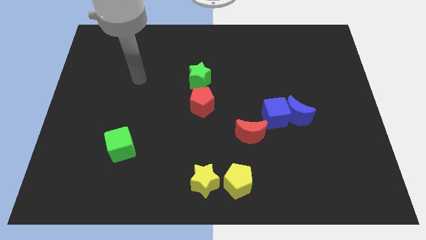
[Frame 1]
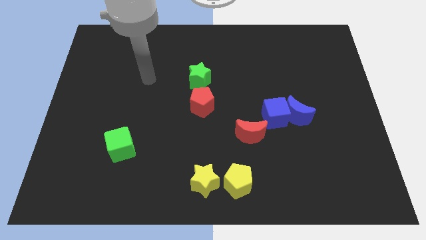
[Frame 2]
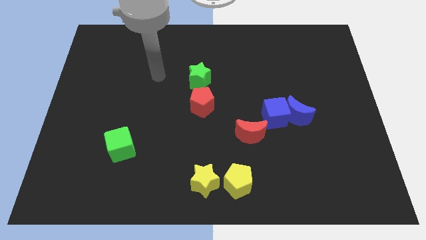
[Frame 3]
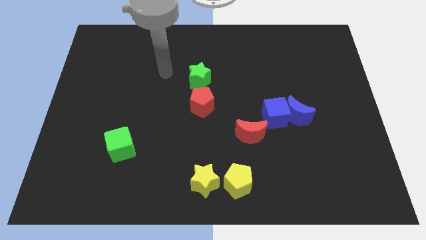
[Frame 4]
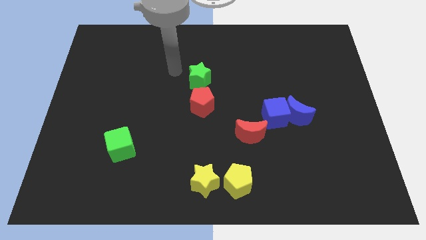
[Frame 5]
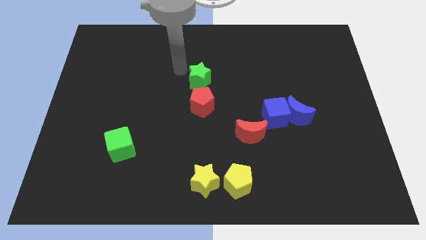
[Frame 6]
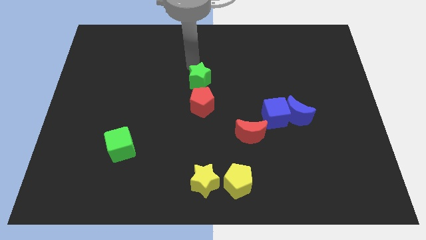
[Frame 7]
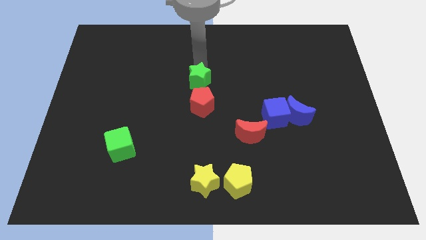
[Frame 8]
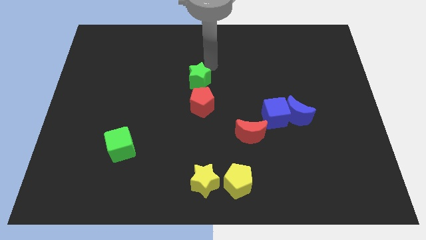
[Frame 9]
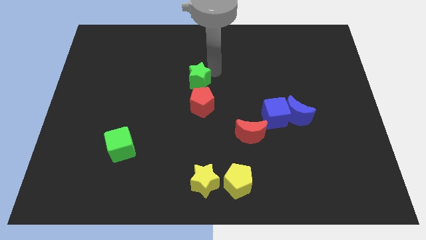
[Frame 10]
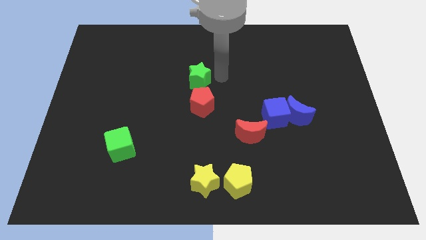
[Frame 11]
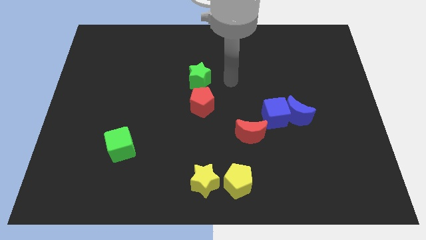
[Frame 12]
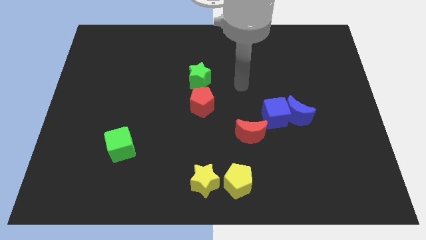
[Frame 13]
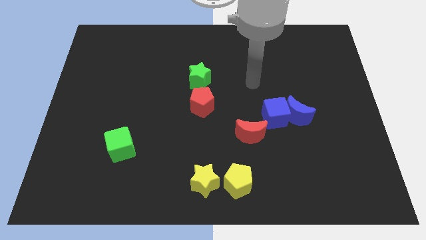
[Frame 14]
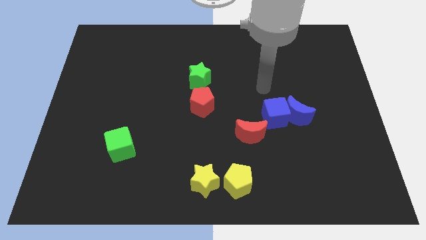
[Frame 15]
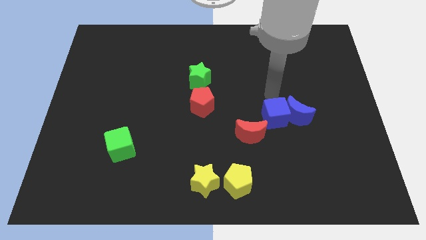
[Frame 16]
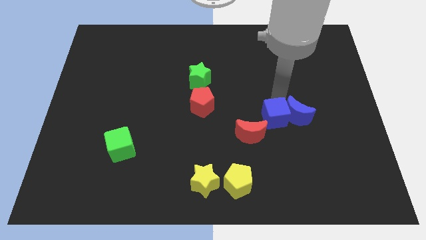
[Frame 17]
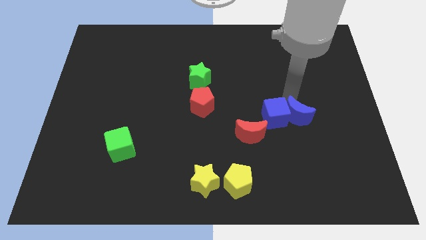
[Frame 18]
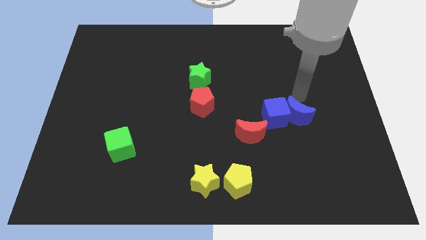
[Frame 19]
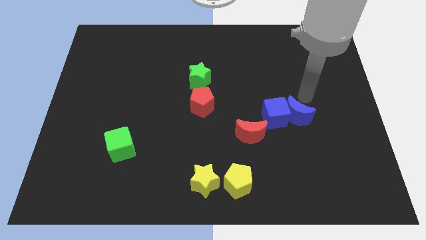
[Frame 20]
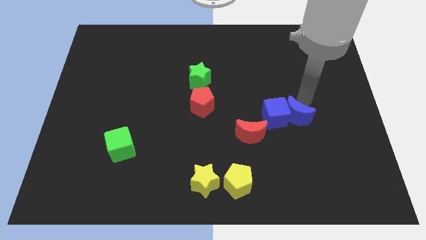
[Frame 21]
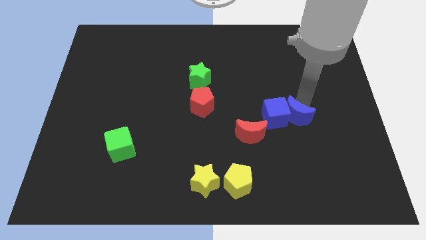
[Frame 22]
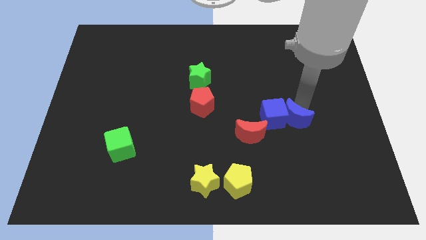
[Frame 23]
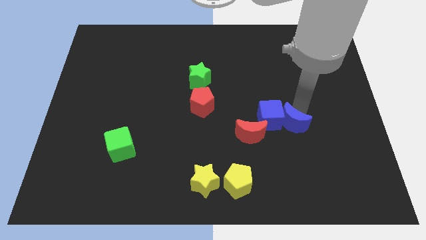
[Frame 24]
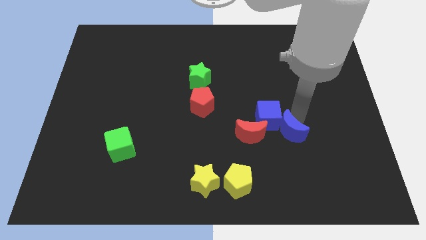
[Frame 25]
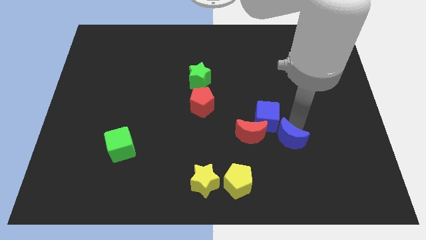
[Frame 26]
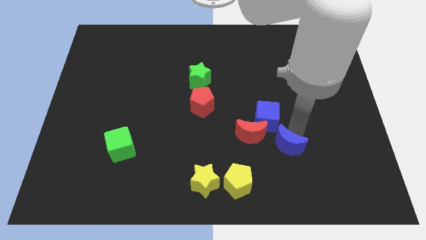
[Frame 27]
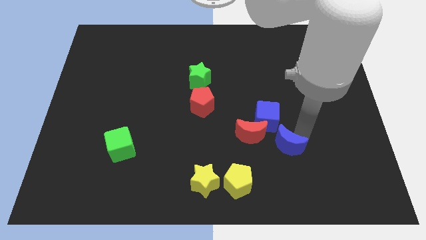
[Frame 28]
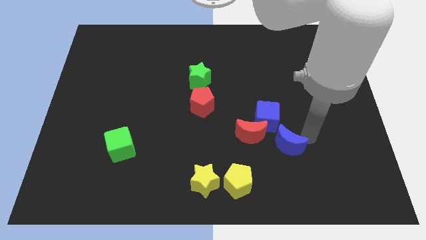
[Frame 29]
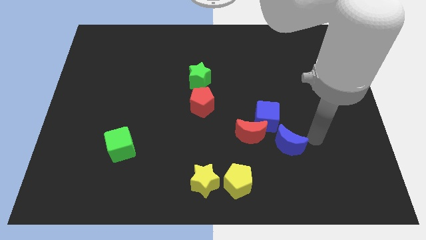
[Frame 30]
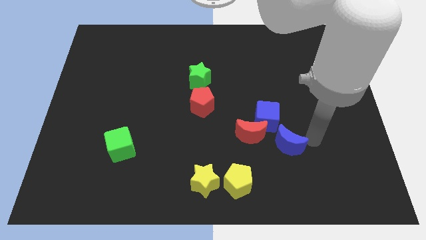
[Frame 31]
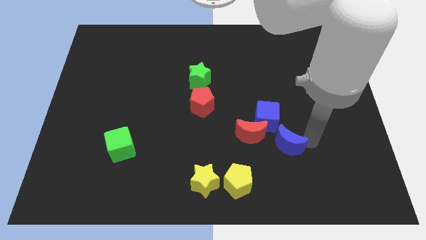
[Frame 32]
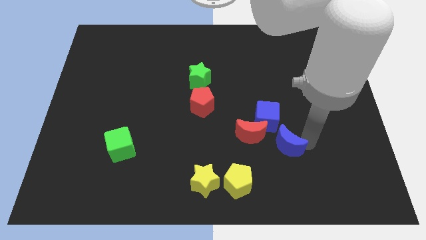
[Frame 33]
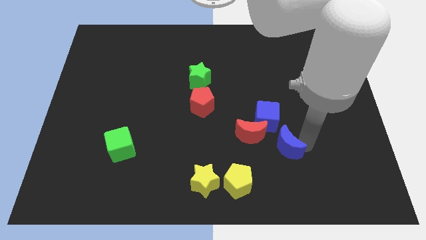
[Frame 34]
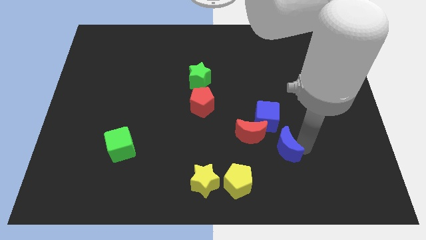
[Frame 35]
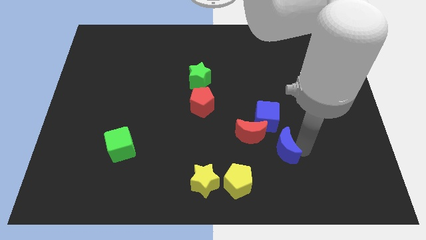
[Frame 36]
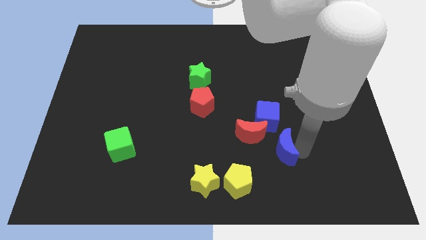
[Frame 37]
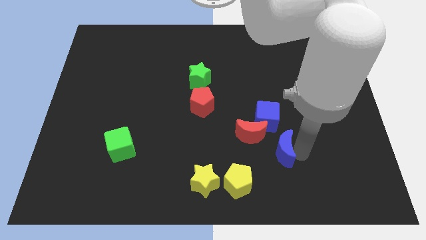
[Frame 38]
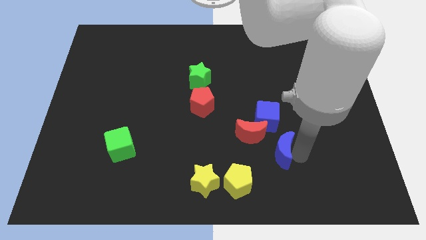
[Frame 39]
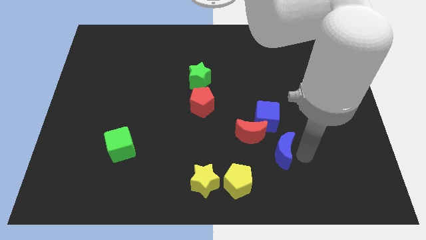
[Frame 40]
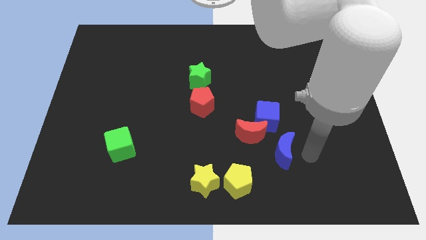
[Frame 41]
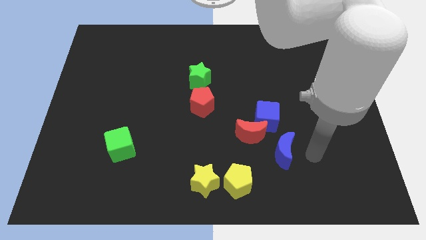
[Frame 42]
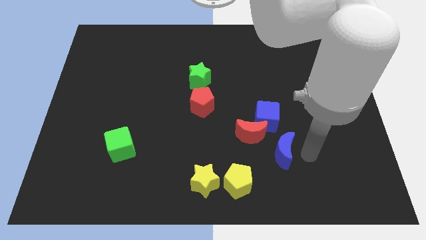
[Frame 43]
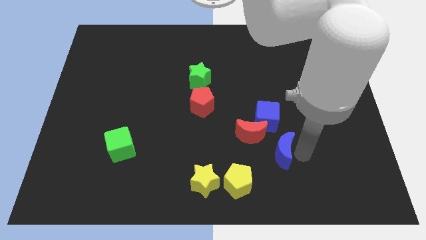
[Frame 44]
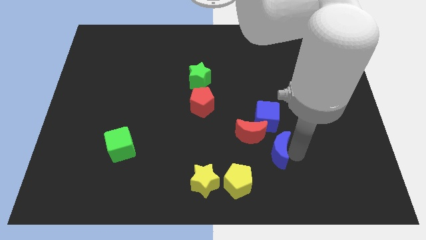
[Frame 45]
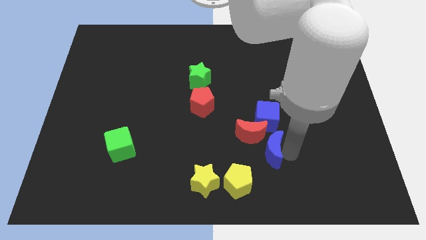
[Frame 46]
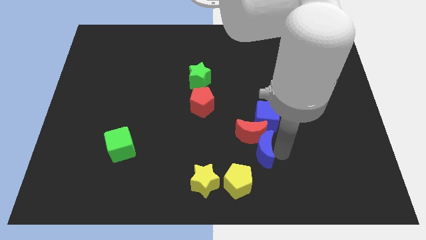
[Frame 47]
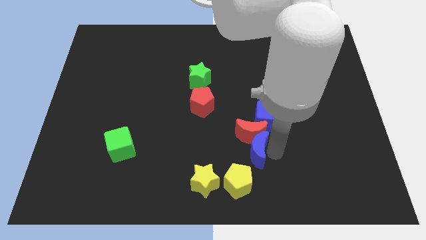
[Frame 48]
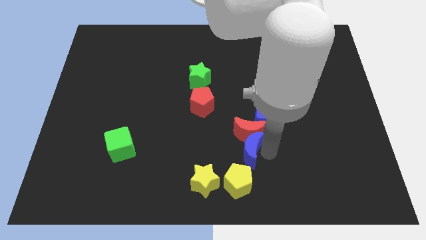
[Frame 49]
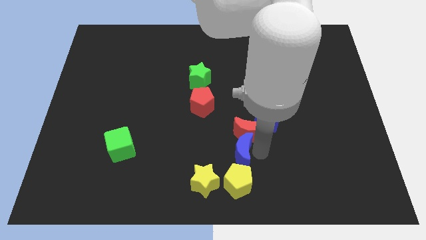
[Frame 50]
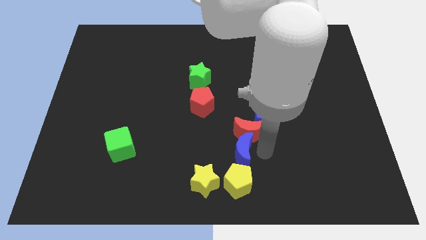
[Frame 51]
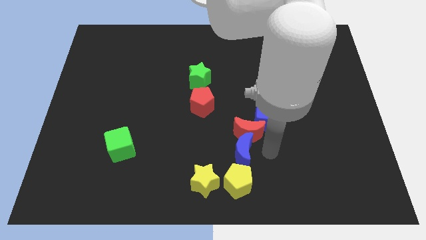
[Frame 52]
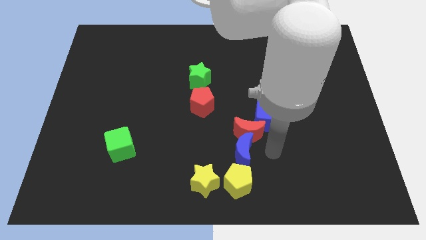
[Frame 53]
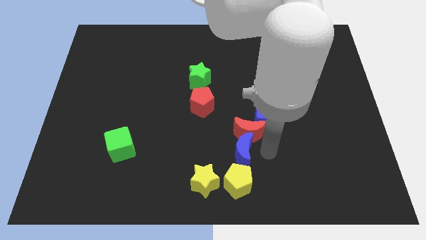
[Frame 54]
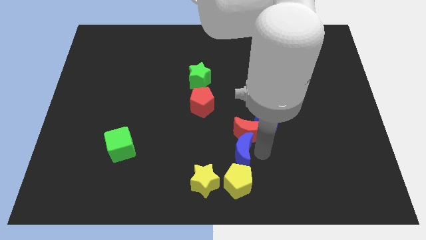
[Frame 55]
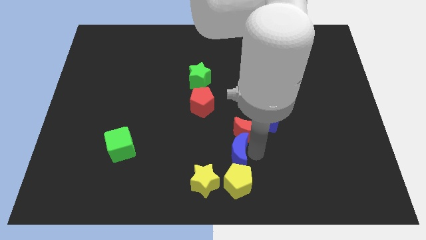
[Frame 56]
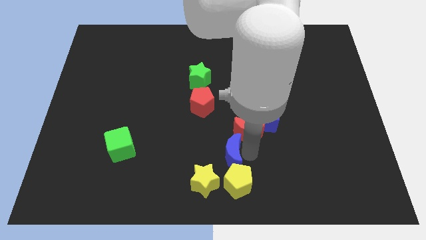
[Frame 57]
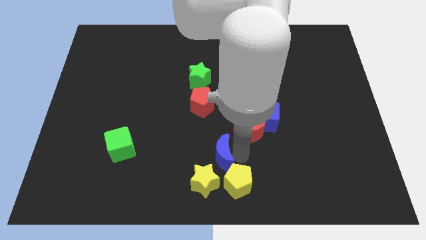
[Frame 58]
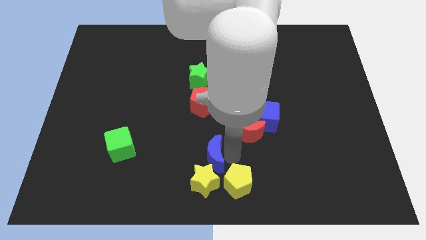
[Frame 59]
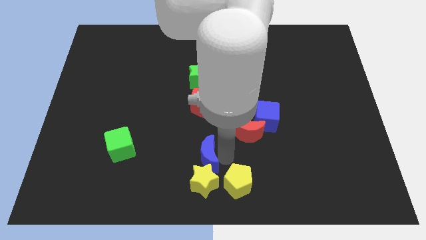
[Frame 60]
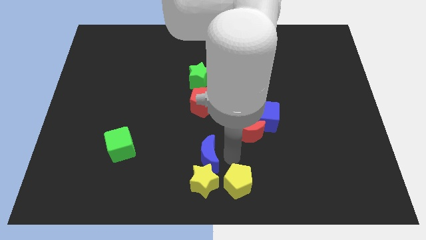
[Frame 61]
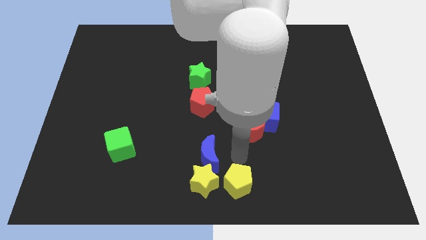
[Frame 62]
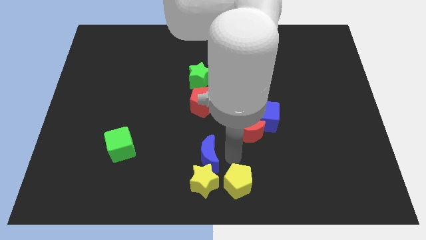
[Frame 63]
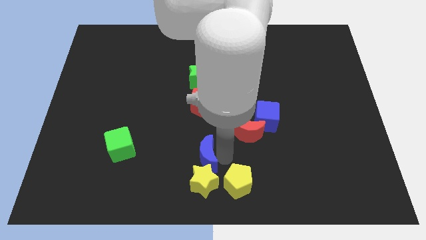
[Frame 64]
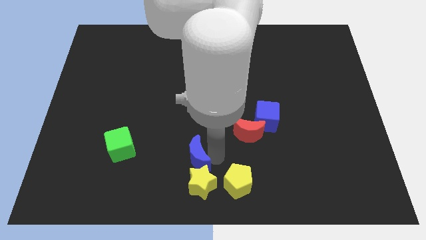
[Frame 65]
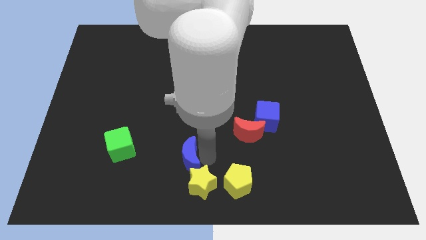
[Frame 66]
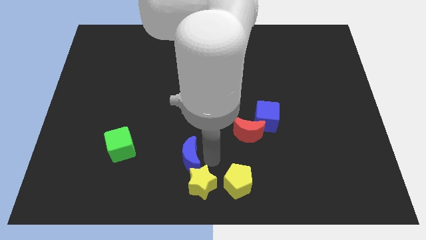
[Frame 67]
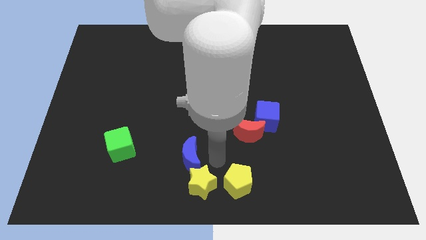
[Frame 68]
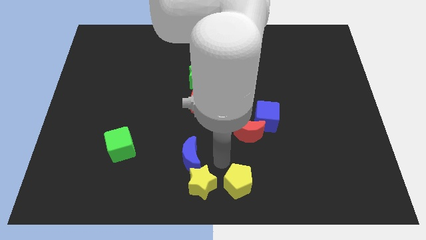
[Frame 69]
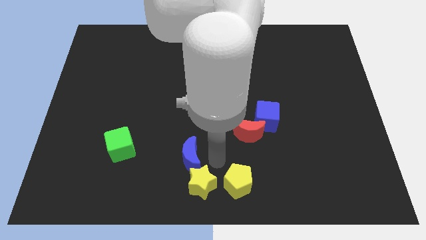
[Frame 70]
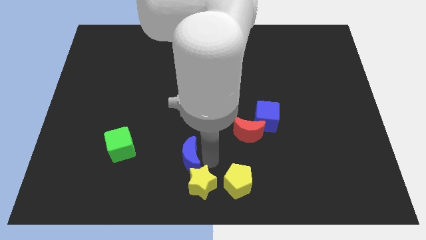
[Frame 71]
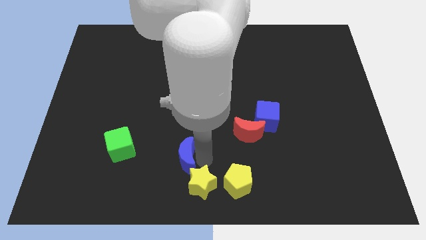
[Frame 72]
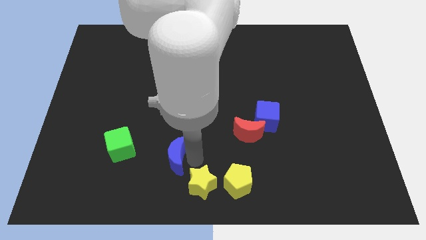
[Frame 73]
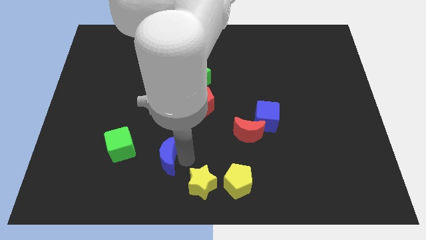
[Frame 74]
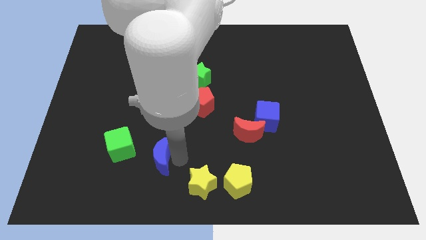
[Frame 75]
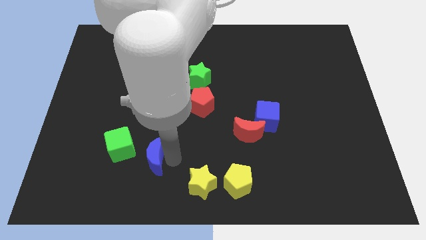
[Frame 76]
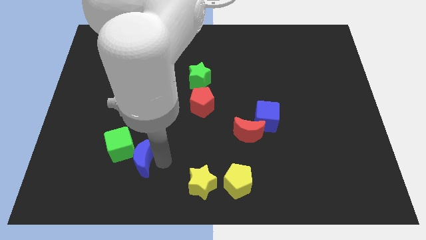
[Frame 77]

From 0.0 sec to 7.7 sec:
move the blue moon close to the green cube
